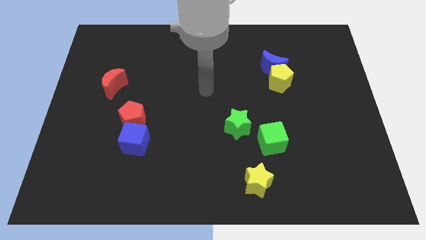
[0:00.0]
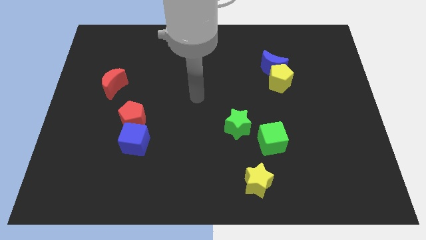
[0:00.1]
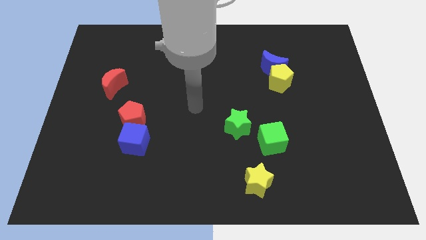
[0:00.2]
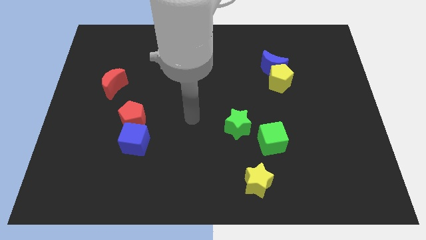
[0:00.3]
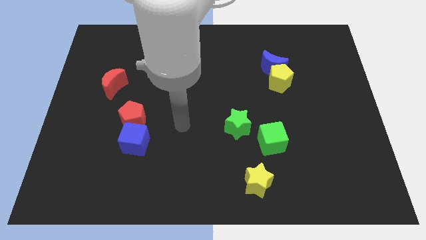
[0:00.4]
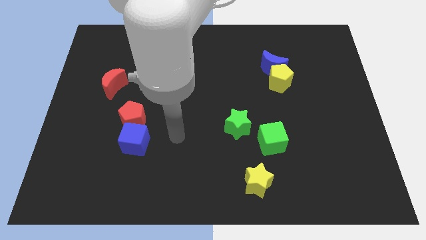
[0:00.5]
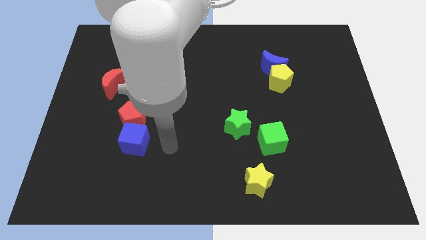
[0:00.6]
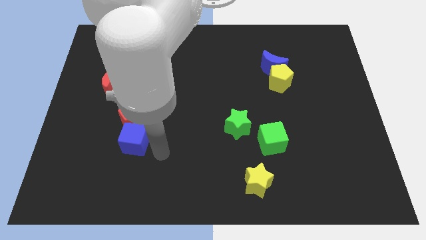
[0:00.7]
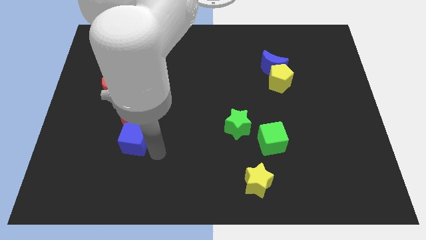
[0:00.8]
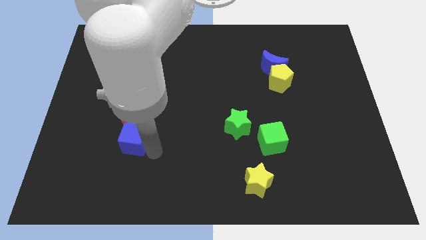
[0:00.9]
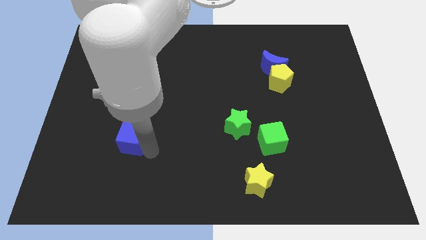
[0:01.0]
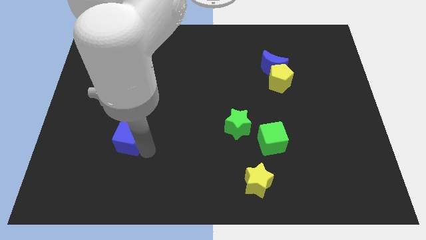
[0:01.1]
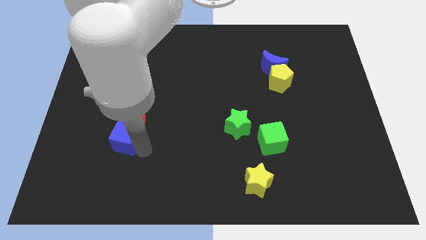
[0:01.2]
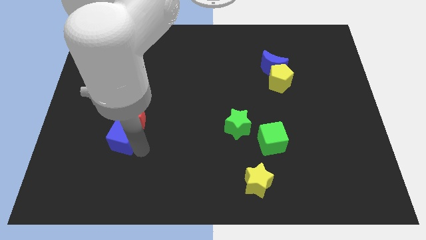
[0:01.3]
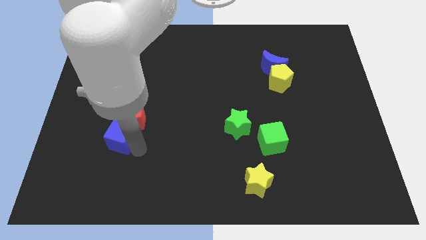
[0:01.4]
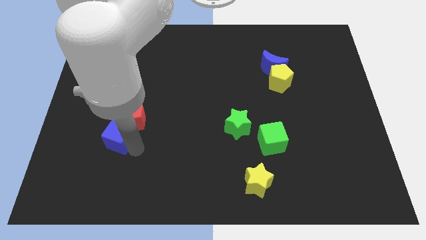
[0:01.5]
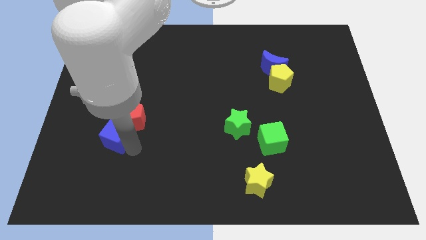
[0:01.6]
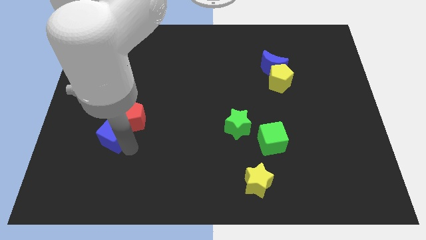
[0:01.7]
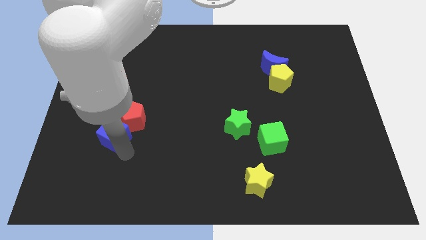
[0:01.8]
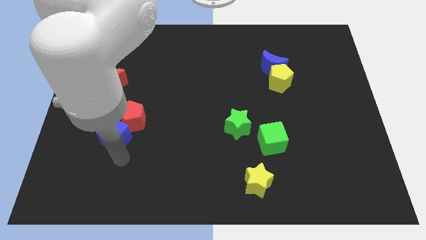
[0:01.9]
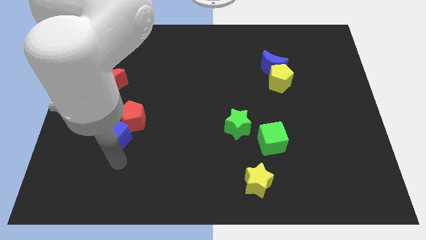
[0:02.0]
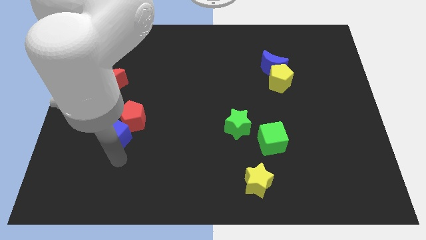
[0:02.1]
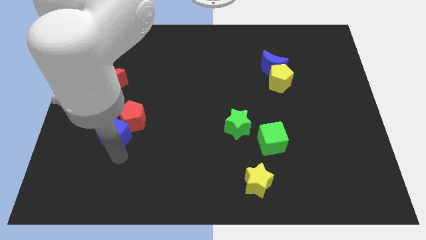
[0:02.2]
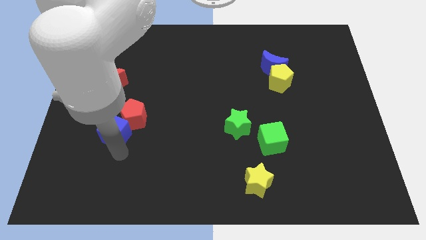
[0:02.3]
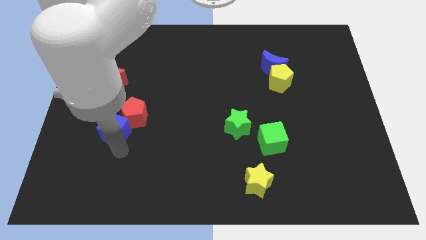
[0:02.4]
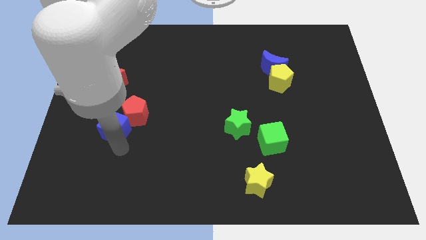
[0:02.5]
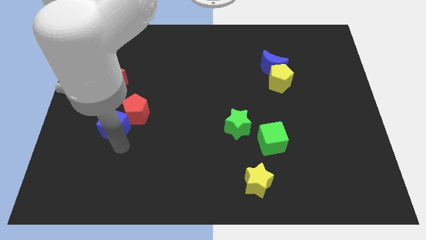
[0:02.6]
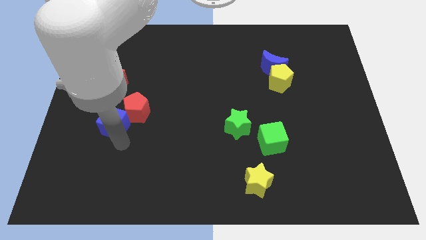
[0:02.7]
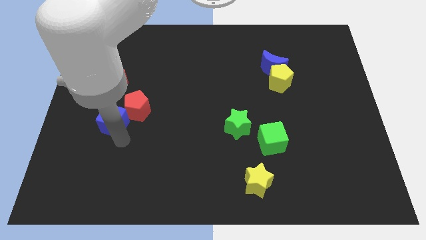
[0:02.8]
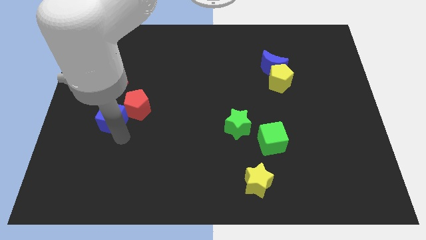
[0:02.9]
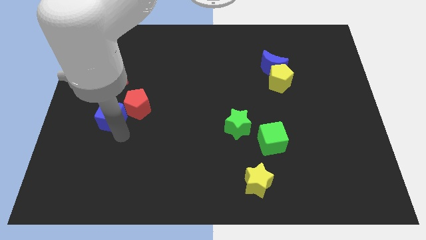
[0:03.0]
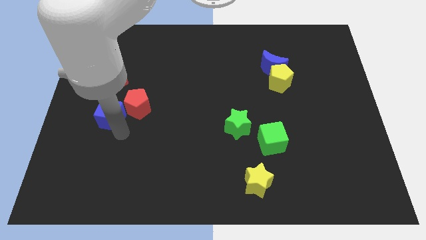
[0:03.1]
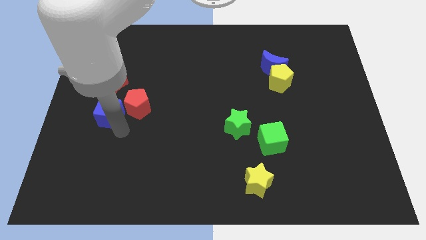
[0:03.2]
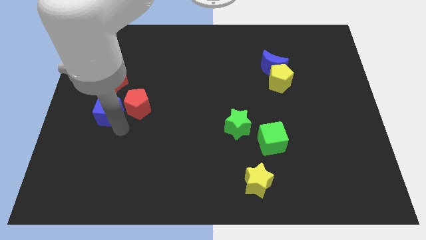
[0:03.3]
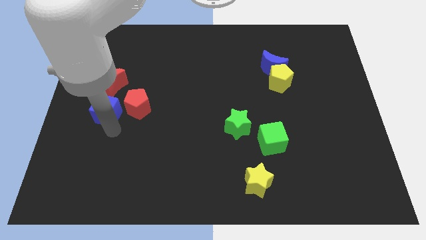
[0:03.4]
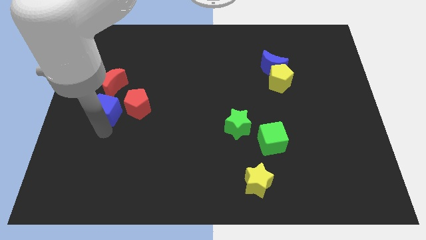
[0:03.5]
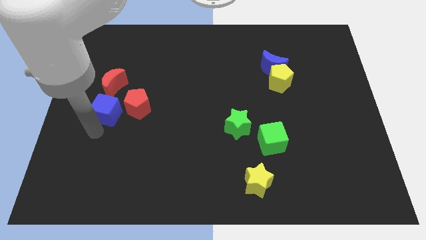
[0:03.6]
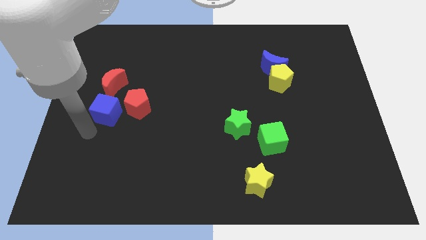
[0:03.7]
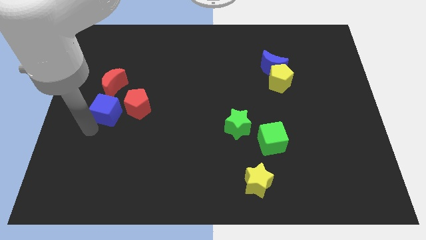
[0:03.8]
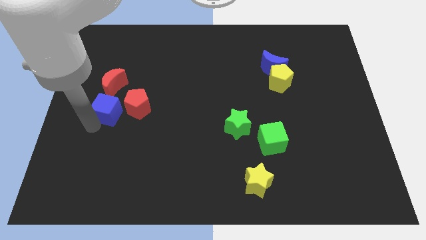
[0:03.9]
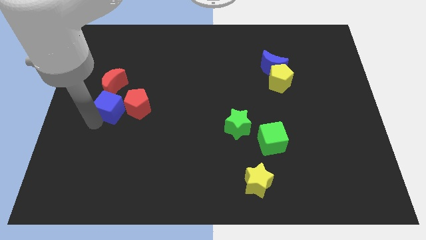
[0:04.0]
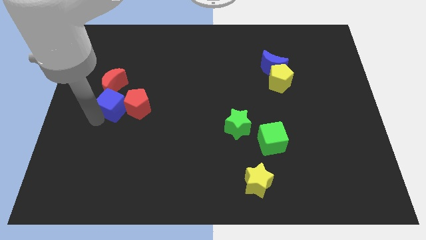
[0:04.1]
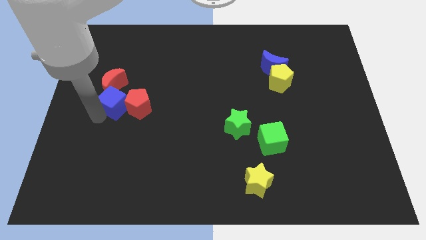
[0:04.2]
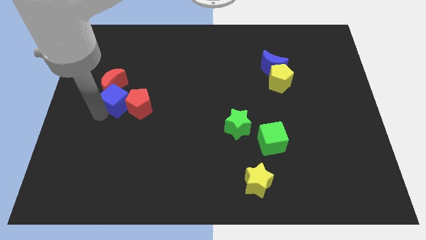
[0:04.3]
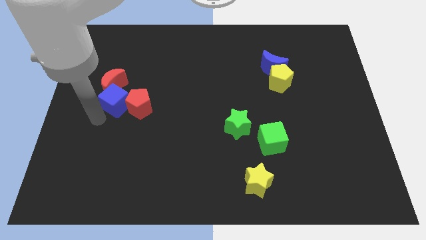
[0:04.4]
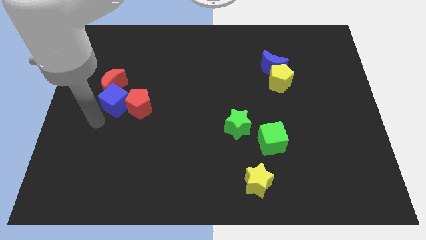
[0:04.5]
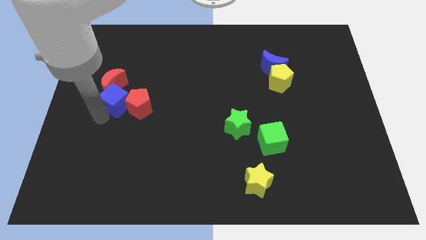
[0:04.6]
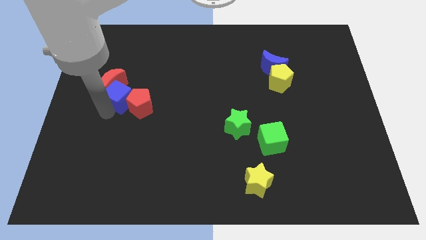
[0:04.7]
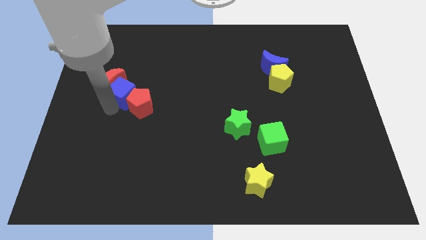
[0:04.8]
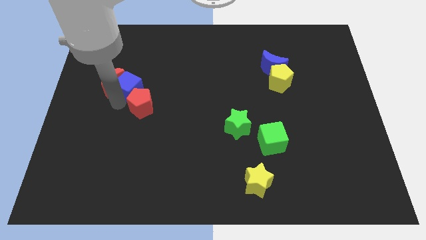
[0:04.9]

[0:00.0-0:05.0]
put the blue cube to the top right of the red moon

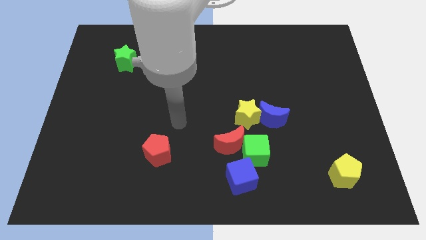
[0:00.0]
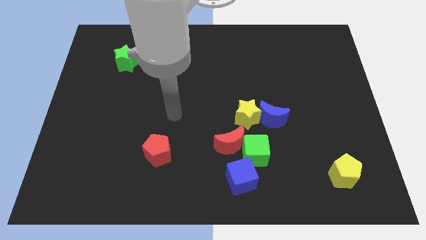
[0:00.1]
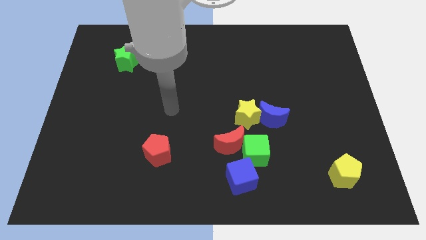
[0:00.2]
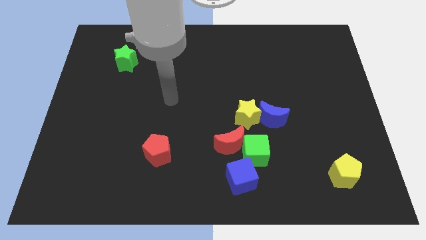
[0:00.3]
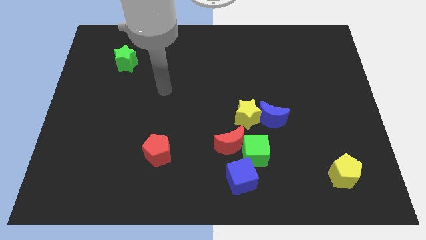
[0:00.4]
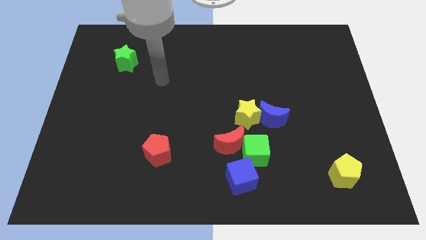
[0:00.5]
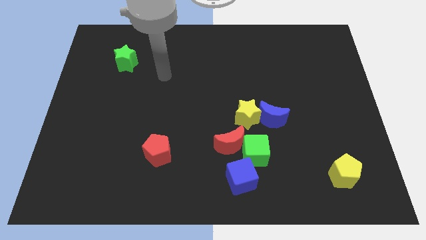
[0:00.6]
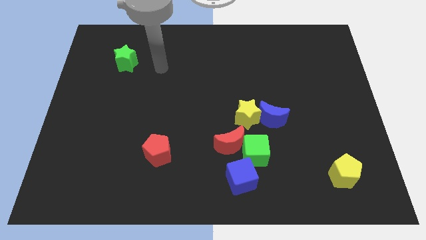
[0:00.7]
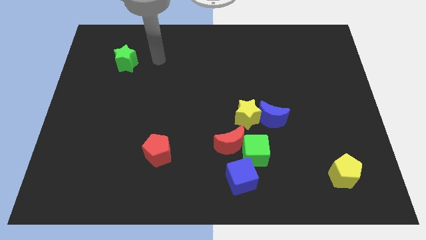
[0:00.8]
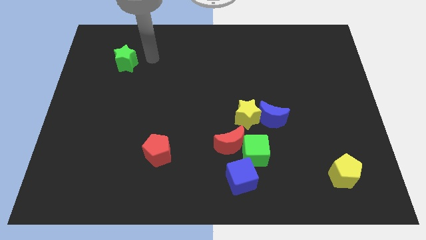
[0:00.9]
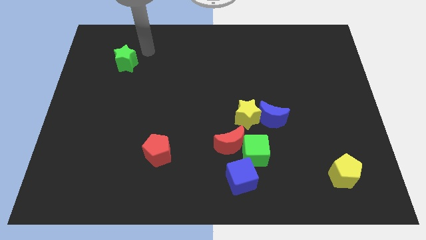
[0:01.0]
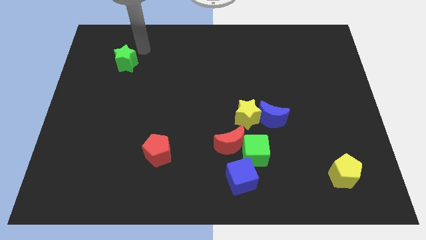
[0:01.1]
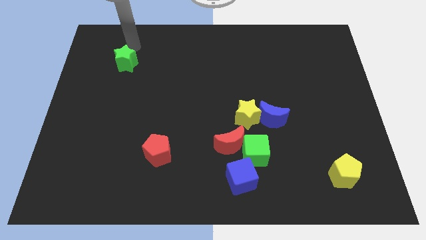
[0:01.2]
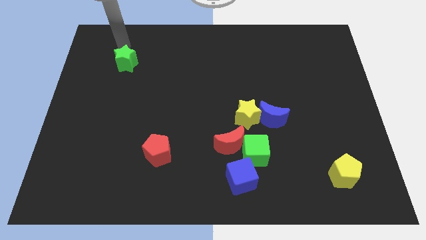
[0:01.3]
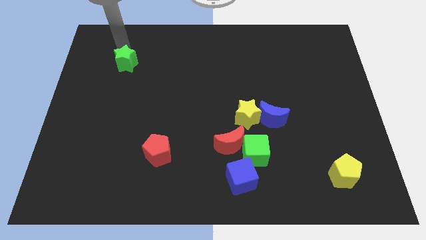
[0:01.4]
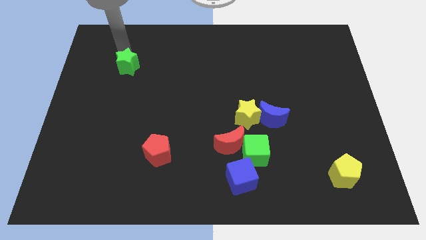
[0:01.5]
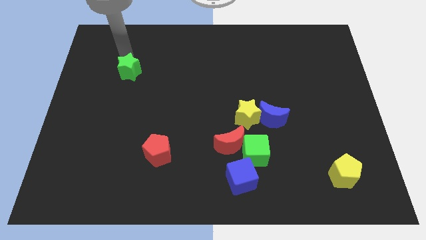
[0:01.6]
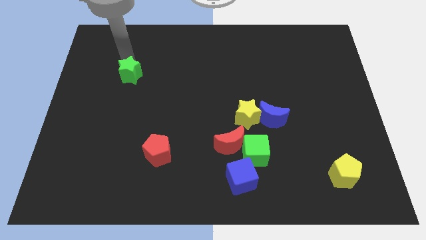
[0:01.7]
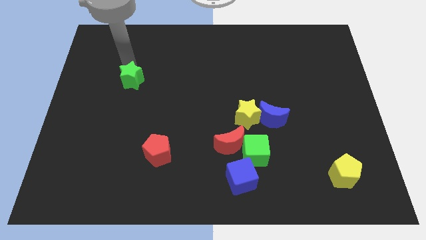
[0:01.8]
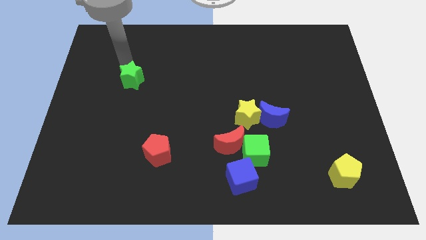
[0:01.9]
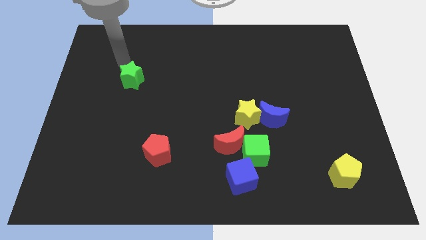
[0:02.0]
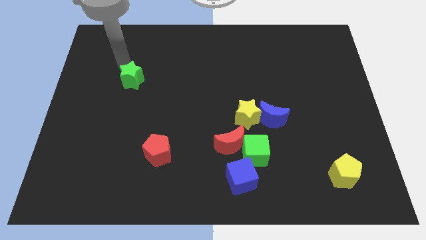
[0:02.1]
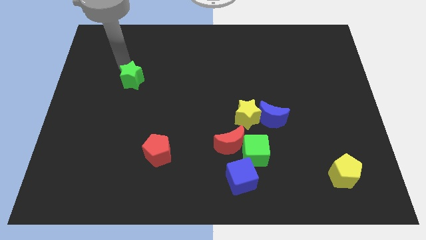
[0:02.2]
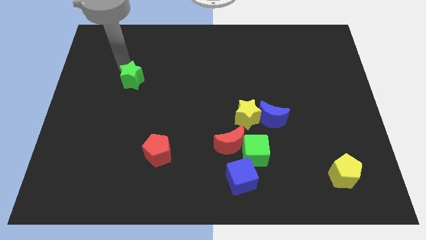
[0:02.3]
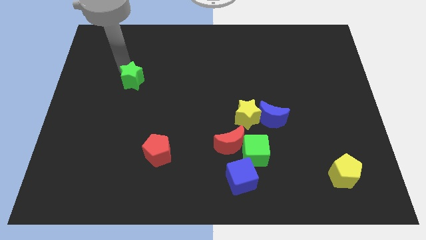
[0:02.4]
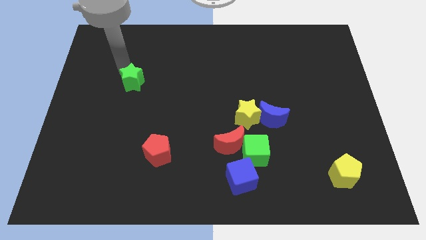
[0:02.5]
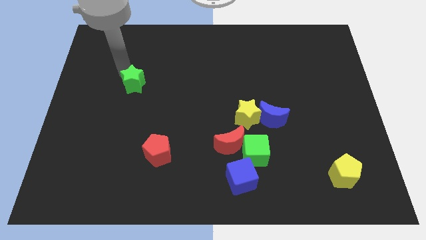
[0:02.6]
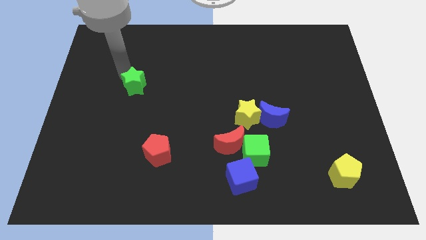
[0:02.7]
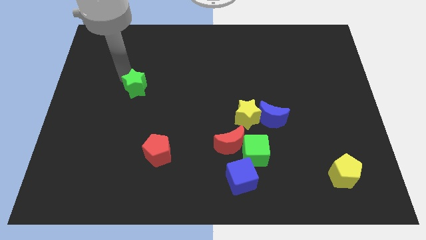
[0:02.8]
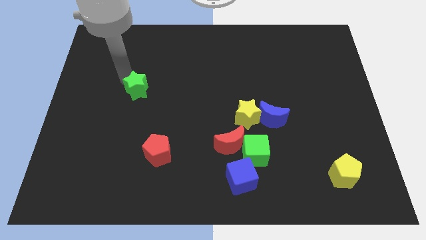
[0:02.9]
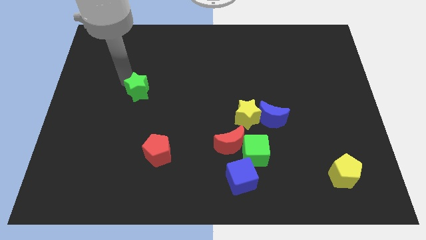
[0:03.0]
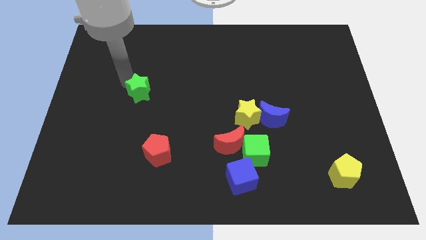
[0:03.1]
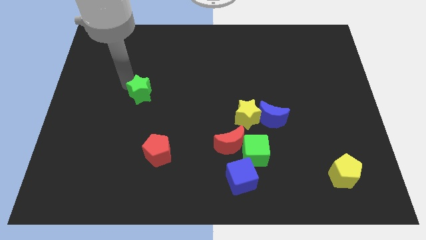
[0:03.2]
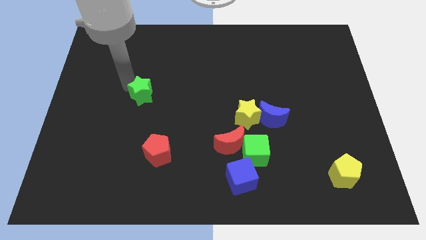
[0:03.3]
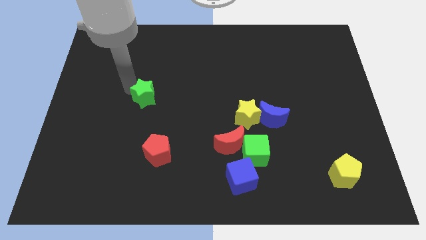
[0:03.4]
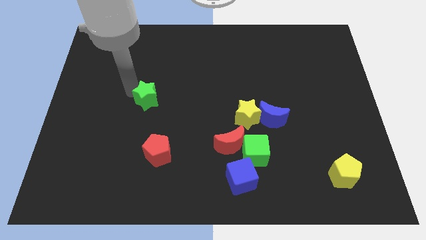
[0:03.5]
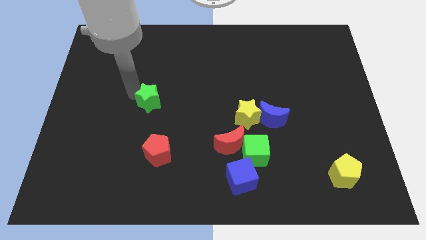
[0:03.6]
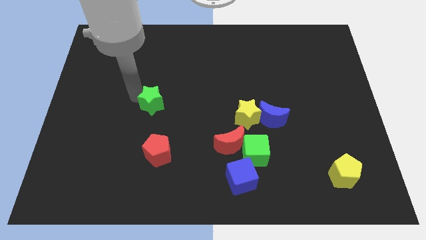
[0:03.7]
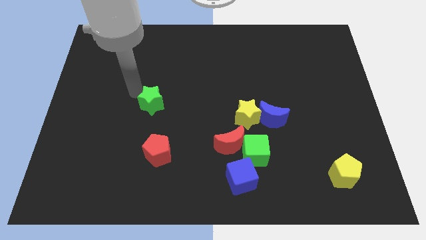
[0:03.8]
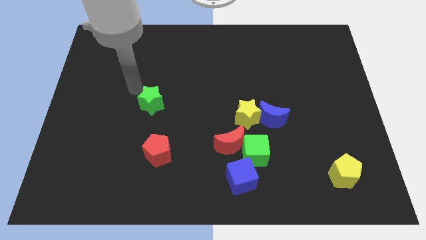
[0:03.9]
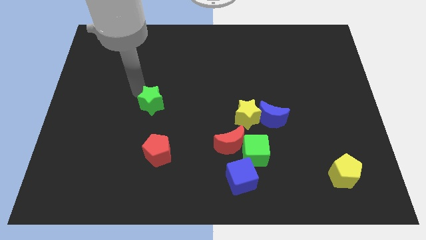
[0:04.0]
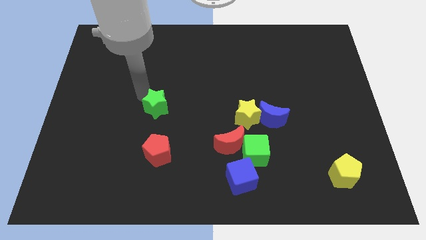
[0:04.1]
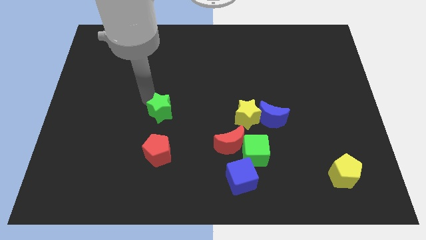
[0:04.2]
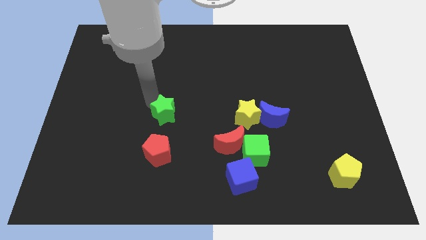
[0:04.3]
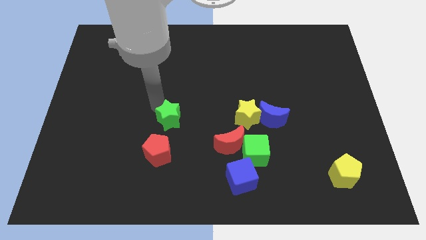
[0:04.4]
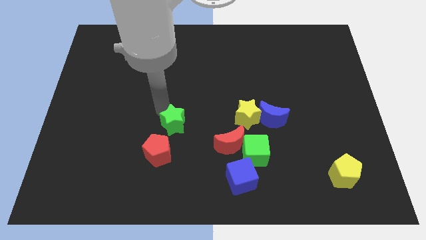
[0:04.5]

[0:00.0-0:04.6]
slide the green star diagonally up and to the right of the red pentagon
